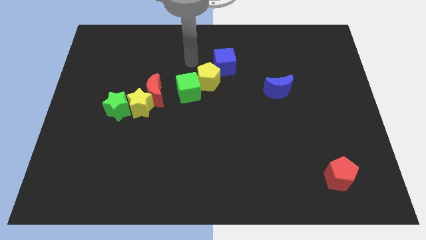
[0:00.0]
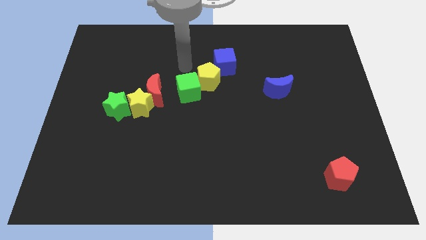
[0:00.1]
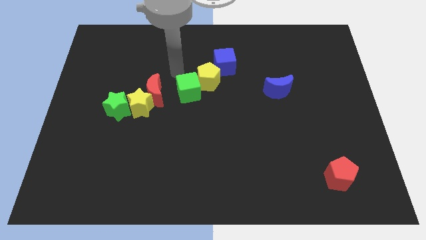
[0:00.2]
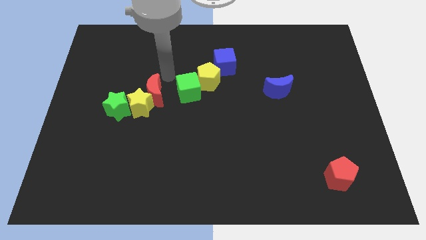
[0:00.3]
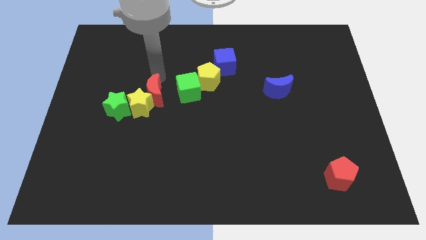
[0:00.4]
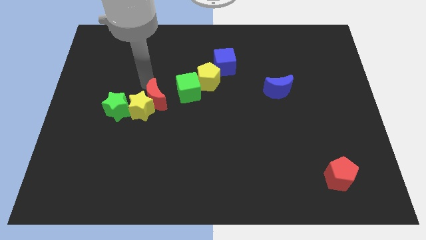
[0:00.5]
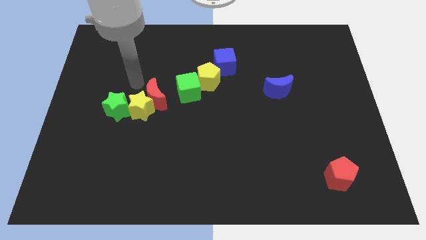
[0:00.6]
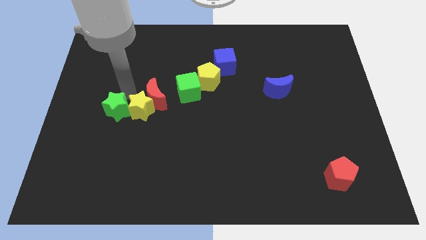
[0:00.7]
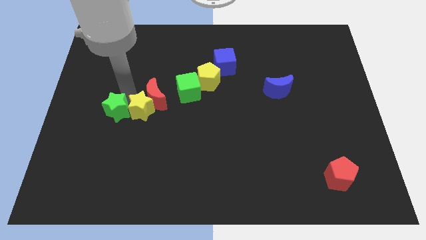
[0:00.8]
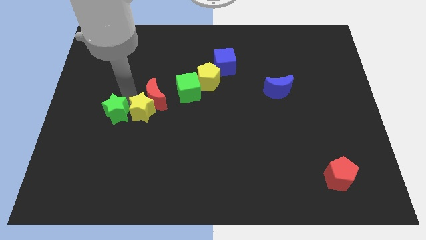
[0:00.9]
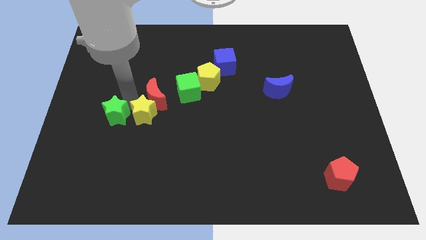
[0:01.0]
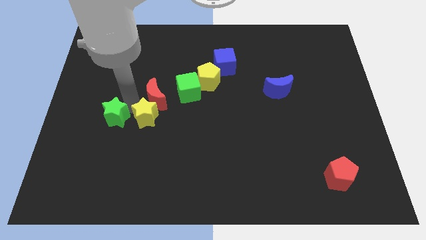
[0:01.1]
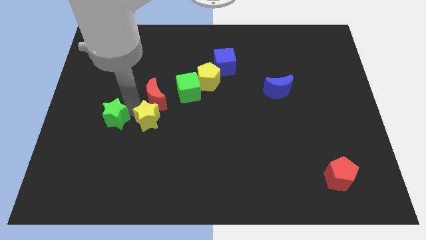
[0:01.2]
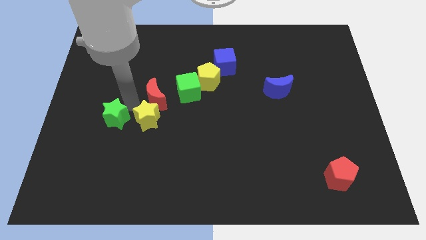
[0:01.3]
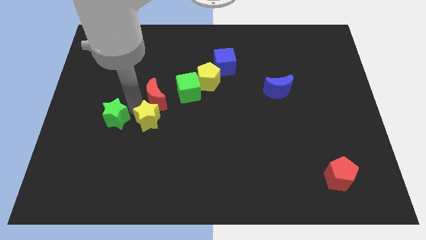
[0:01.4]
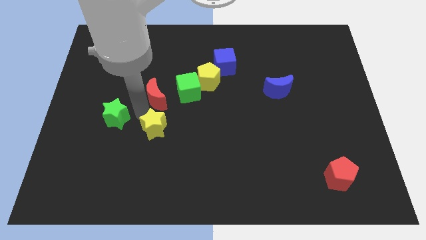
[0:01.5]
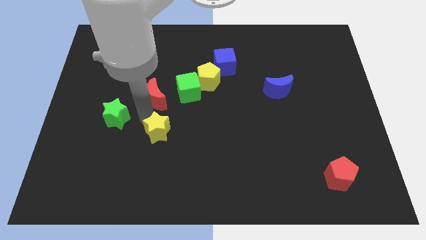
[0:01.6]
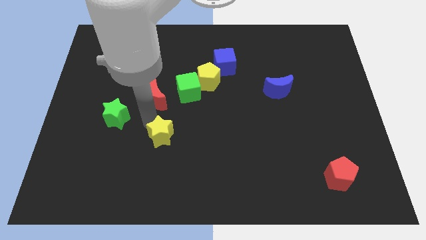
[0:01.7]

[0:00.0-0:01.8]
move the yellow star away from the red moon and green star

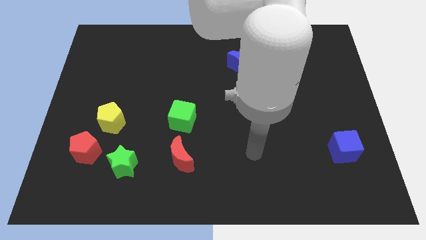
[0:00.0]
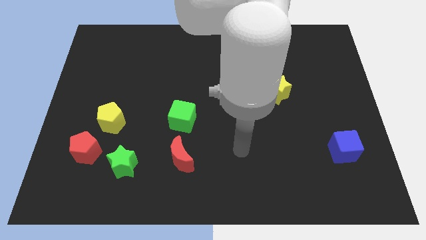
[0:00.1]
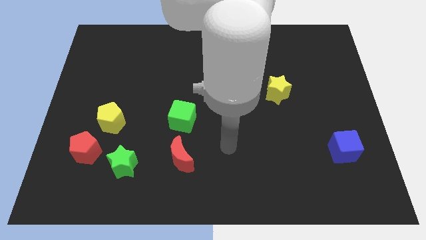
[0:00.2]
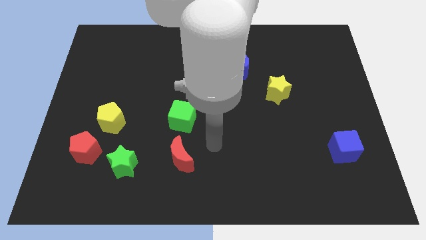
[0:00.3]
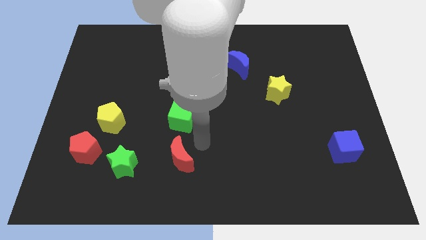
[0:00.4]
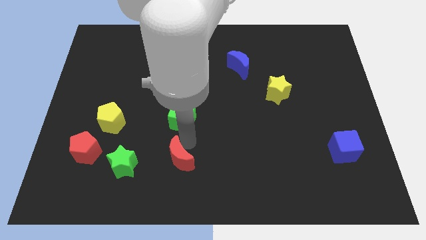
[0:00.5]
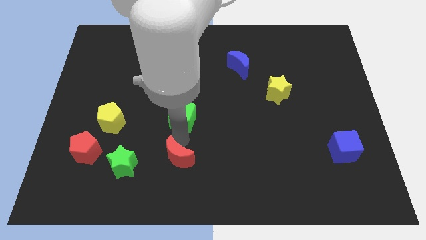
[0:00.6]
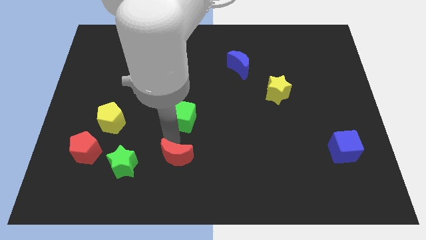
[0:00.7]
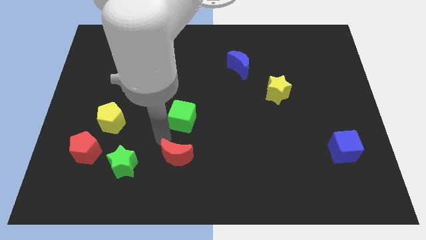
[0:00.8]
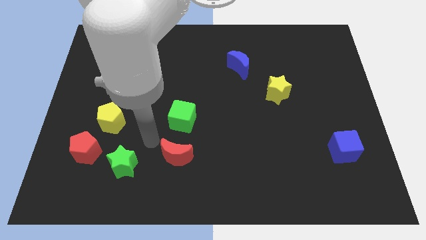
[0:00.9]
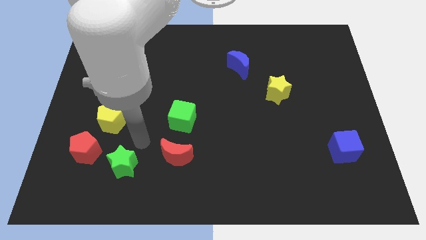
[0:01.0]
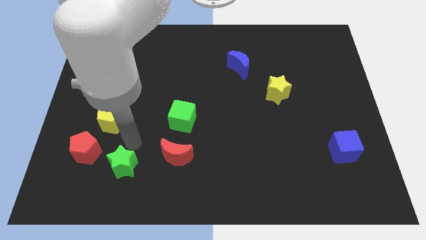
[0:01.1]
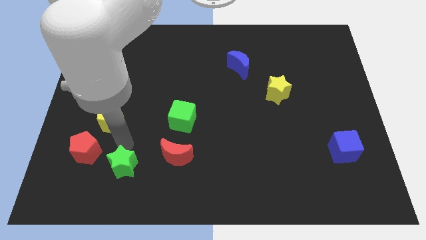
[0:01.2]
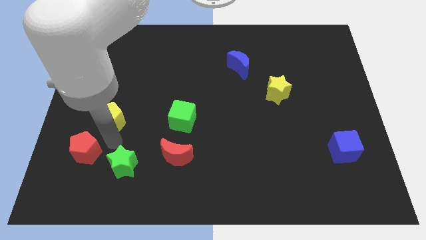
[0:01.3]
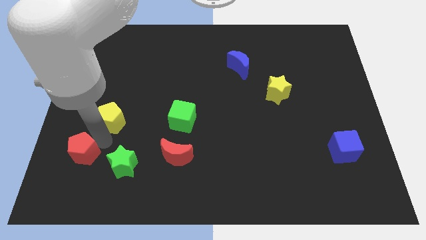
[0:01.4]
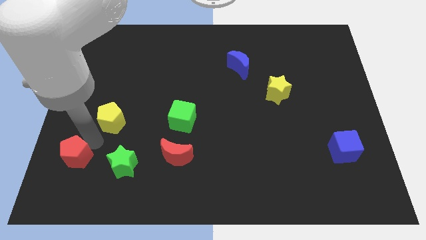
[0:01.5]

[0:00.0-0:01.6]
pull the yellow pentagon apart from the red pentagon

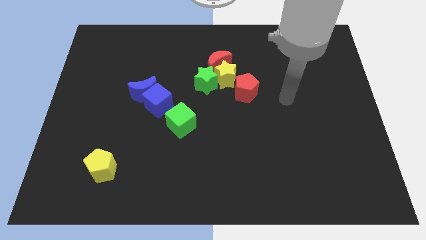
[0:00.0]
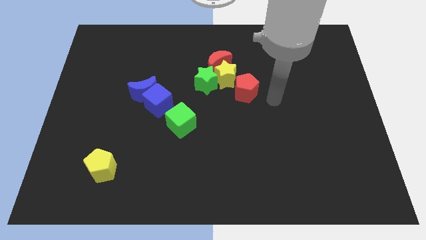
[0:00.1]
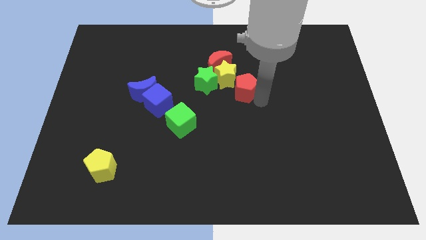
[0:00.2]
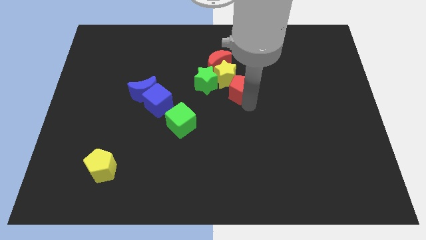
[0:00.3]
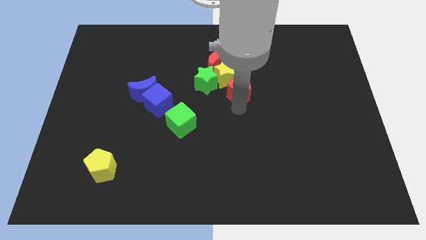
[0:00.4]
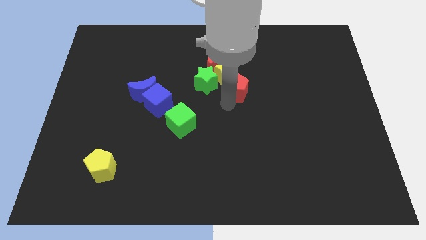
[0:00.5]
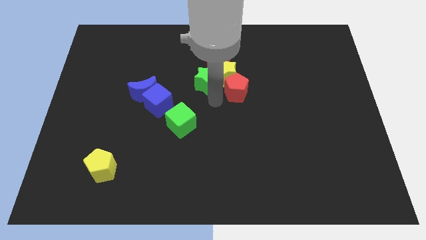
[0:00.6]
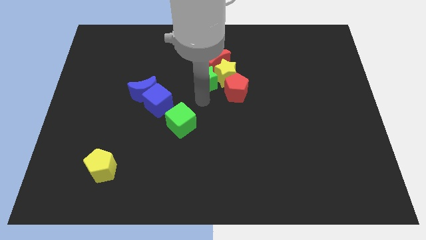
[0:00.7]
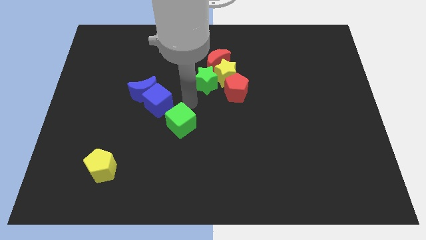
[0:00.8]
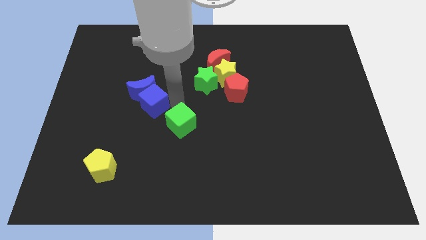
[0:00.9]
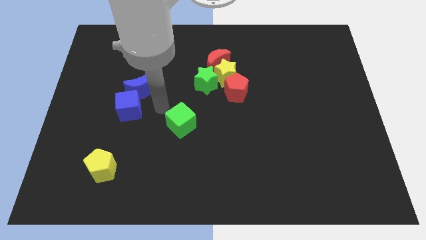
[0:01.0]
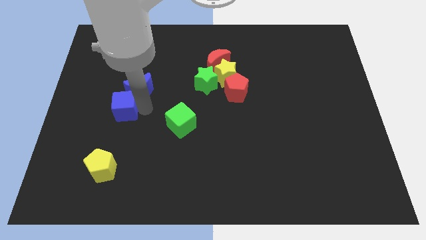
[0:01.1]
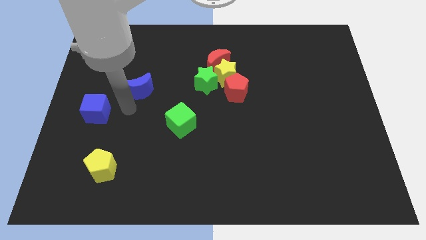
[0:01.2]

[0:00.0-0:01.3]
separate the blue moon from the blue cube

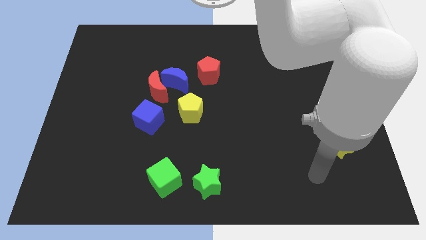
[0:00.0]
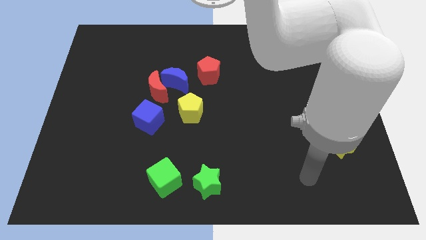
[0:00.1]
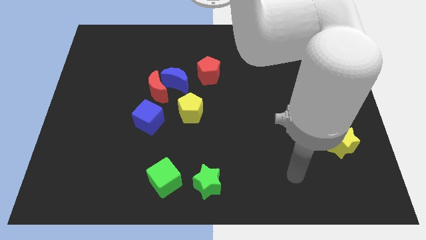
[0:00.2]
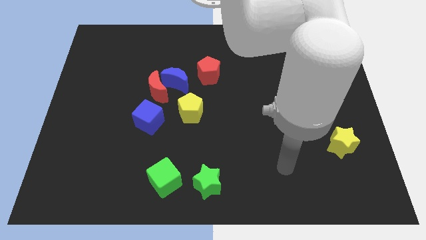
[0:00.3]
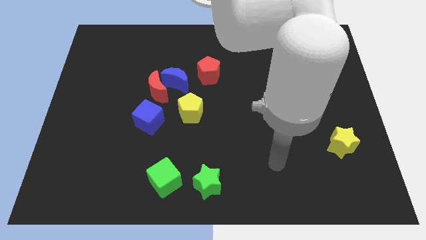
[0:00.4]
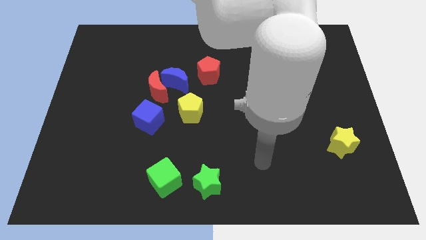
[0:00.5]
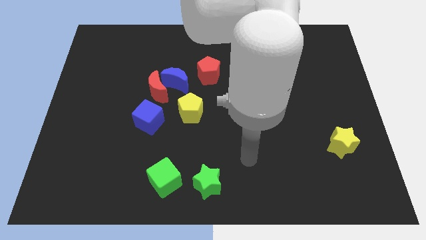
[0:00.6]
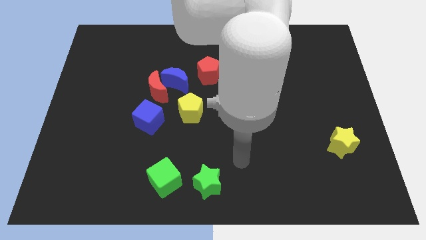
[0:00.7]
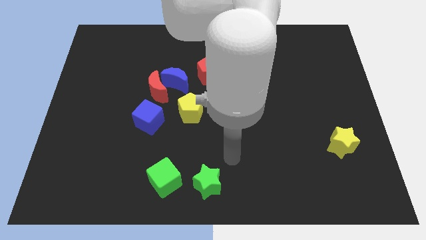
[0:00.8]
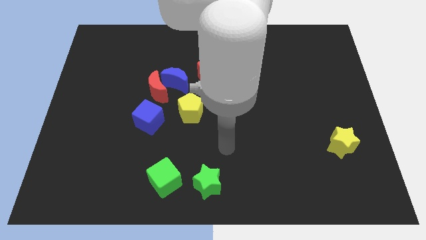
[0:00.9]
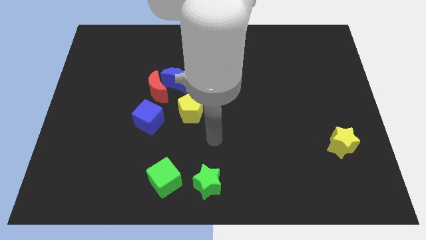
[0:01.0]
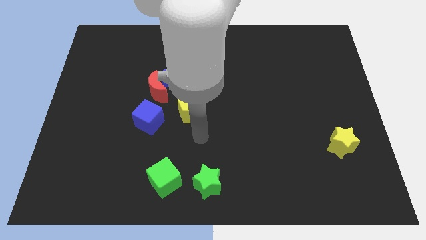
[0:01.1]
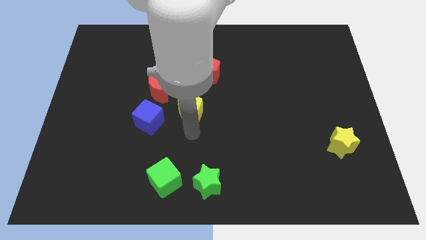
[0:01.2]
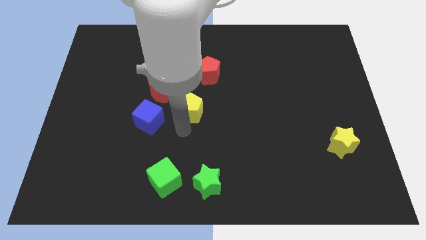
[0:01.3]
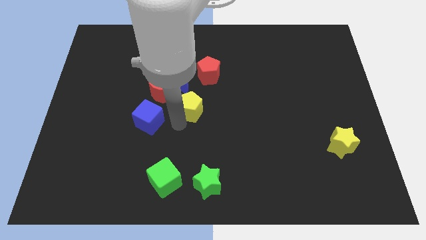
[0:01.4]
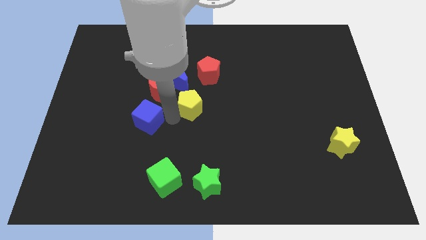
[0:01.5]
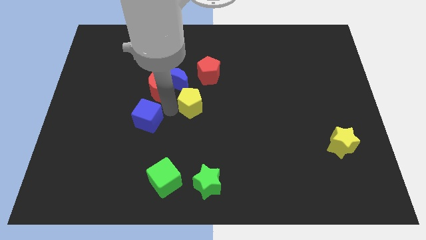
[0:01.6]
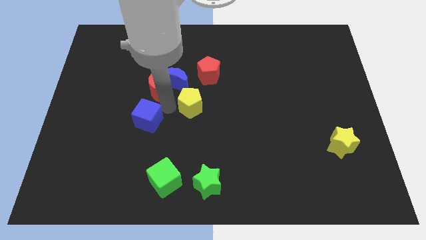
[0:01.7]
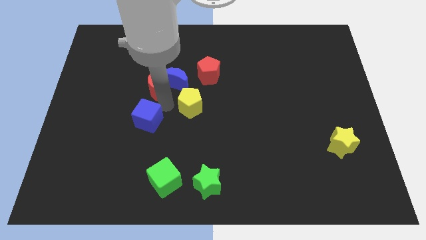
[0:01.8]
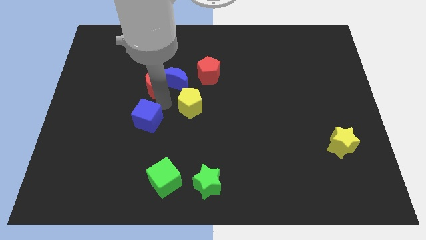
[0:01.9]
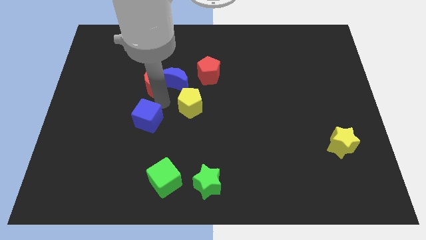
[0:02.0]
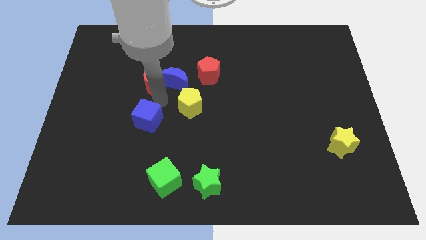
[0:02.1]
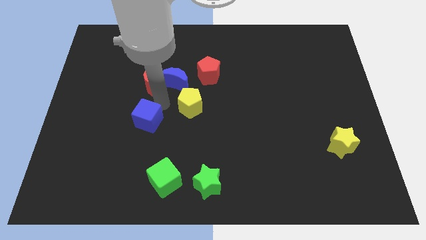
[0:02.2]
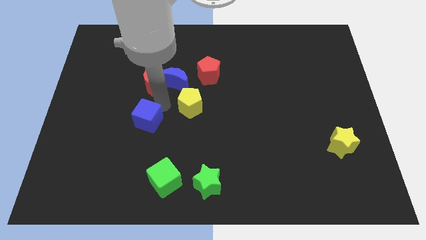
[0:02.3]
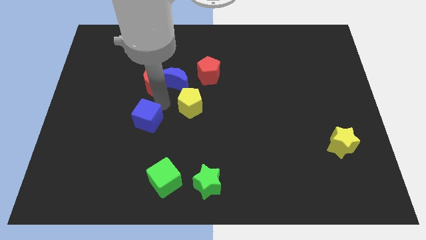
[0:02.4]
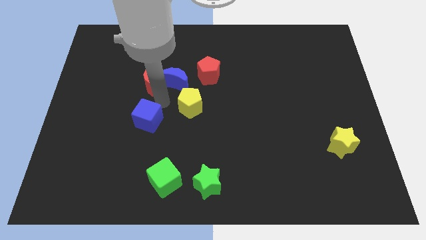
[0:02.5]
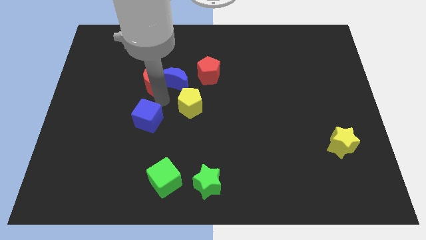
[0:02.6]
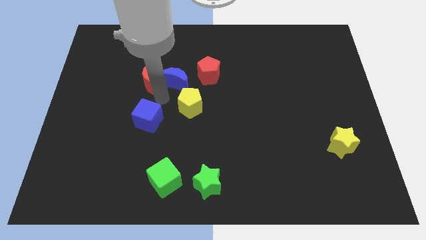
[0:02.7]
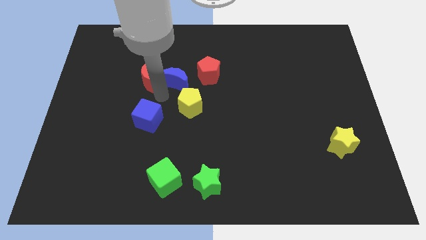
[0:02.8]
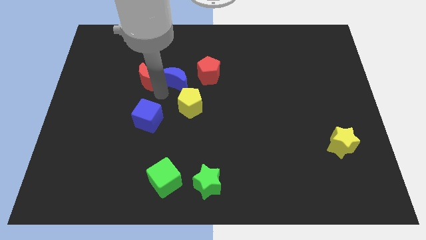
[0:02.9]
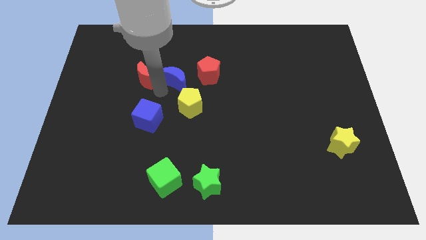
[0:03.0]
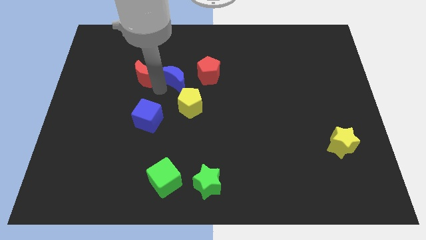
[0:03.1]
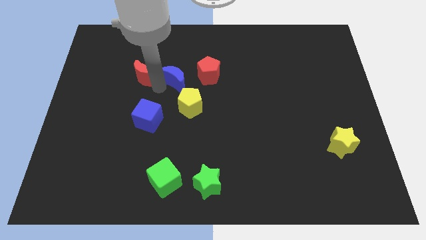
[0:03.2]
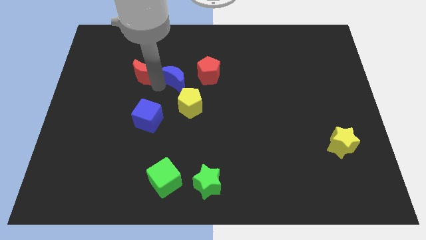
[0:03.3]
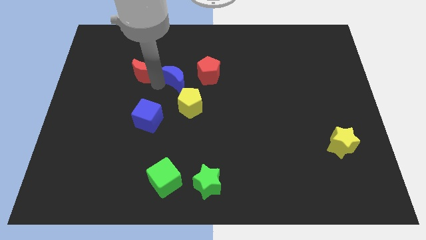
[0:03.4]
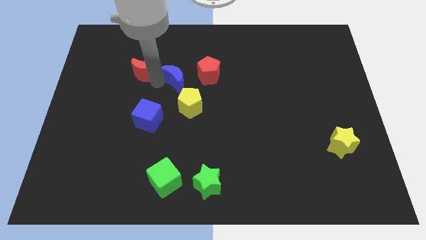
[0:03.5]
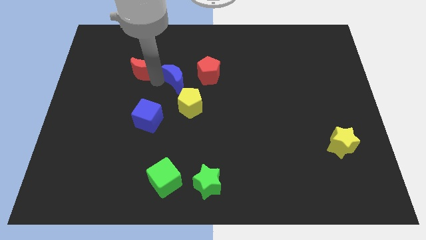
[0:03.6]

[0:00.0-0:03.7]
separate the red moon from the blue moon and blue cube

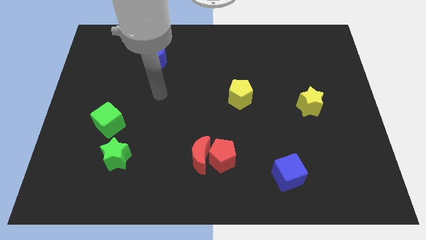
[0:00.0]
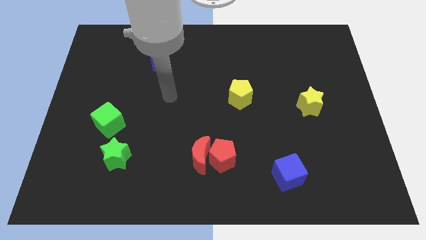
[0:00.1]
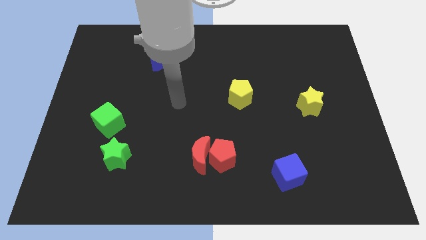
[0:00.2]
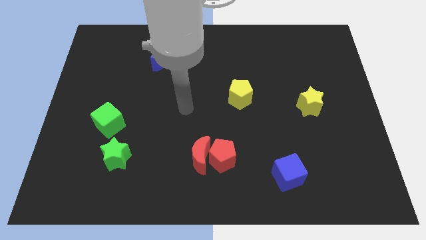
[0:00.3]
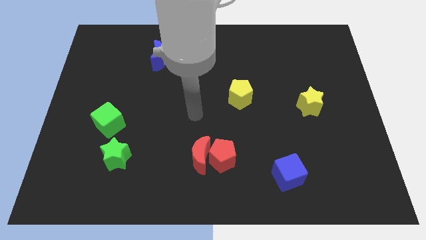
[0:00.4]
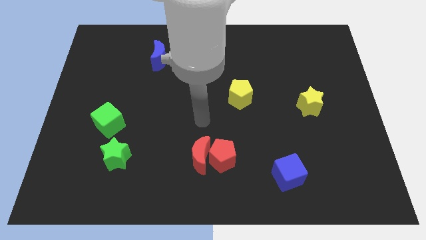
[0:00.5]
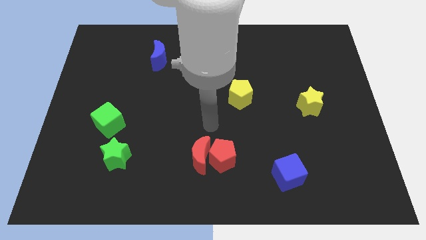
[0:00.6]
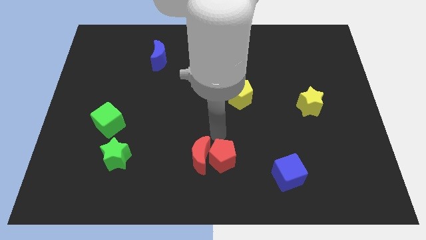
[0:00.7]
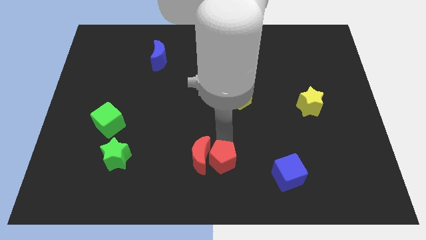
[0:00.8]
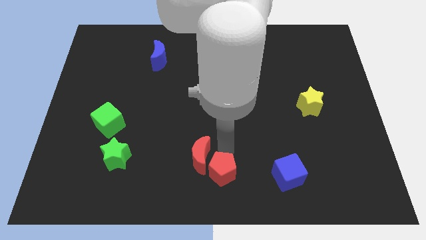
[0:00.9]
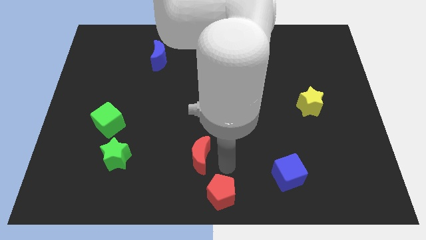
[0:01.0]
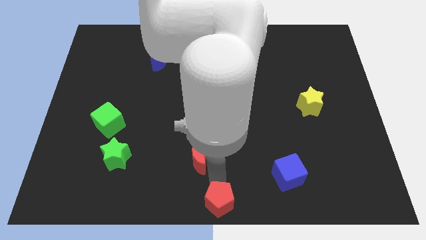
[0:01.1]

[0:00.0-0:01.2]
separate the red moon from the red pentagon
